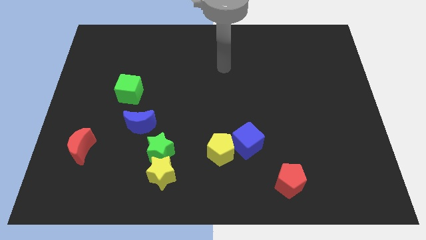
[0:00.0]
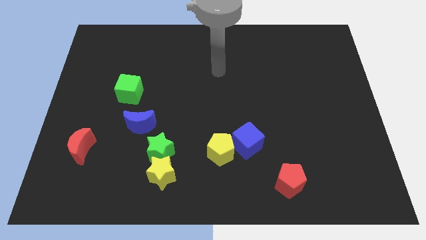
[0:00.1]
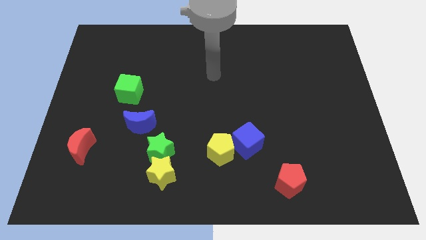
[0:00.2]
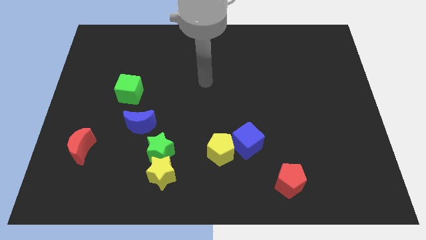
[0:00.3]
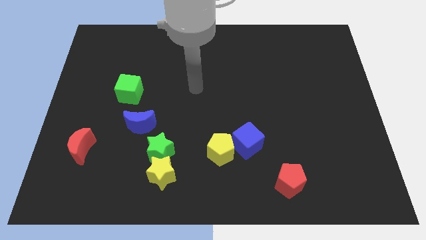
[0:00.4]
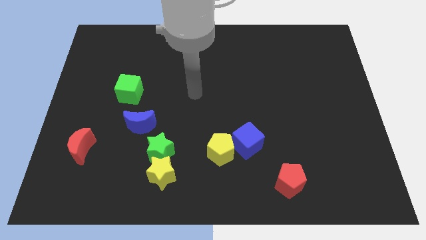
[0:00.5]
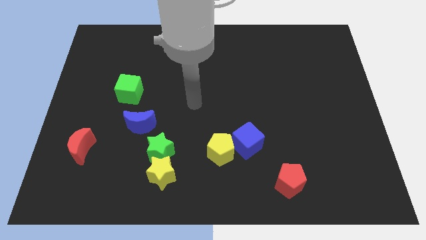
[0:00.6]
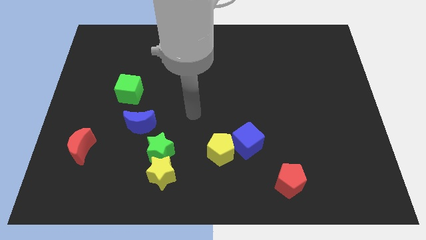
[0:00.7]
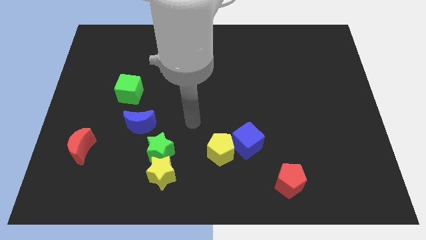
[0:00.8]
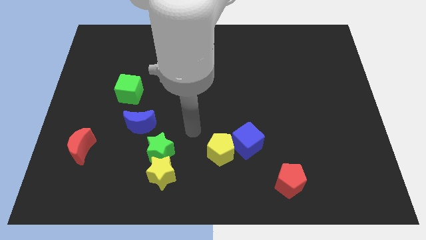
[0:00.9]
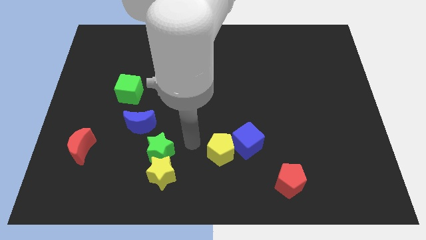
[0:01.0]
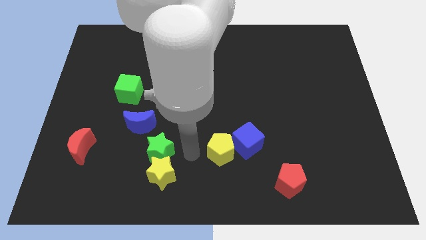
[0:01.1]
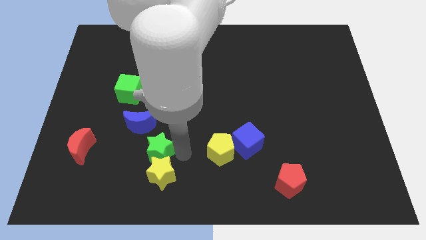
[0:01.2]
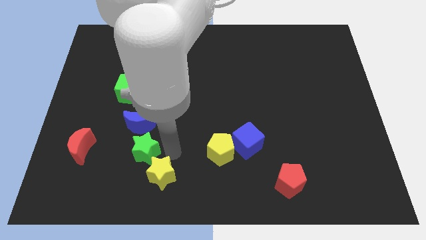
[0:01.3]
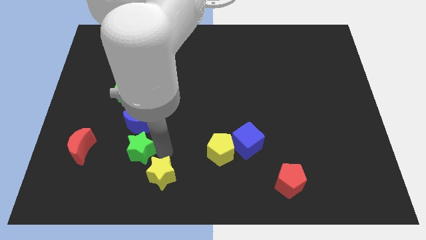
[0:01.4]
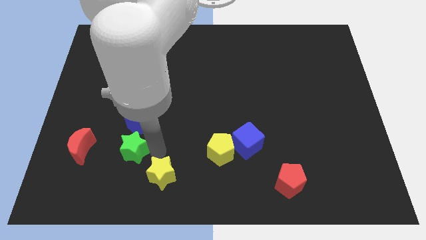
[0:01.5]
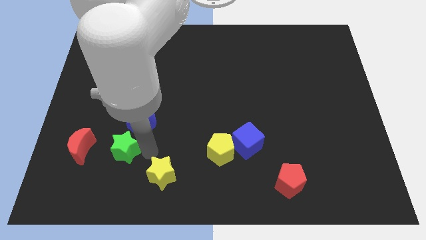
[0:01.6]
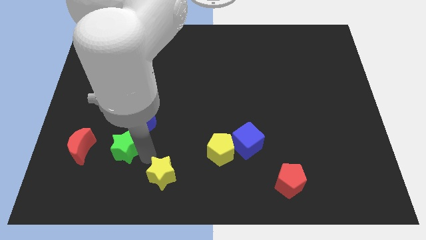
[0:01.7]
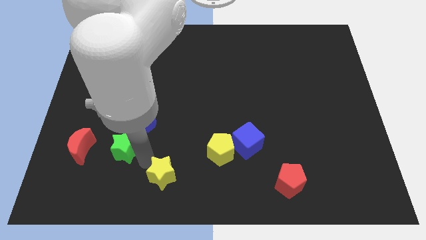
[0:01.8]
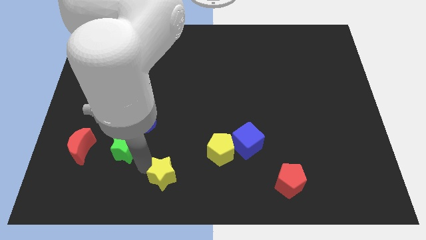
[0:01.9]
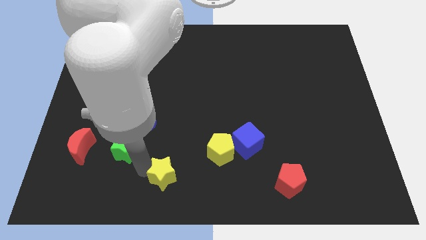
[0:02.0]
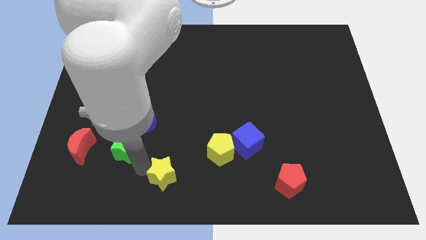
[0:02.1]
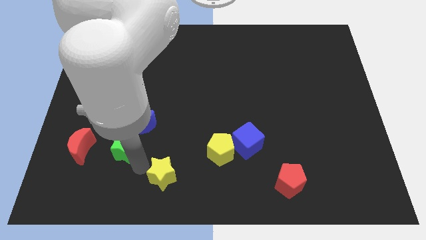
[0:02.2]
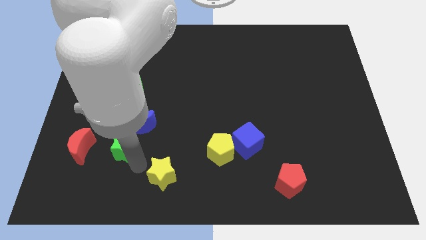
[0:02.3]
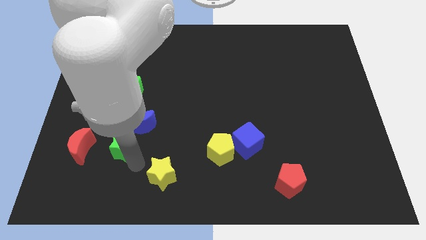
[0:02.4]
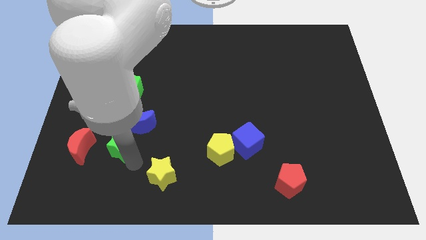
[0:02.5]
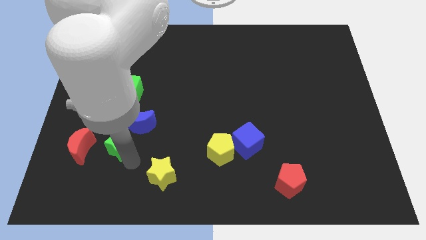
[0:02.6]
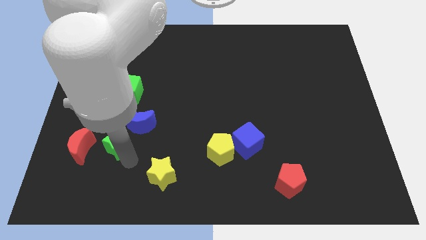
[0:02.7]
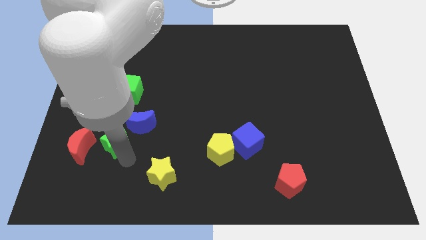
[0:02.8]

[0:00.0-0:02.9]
push the green star diagonally upwards and to the left a little

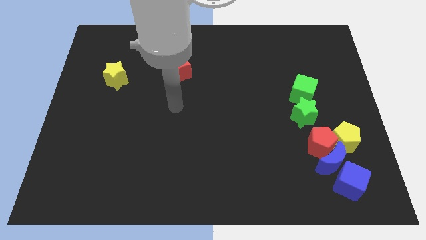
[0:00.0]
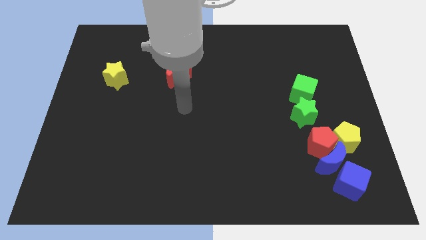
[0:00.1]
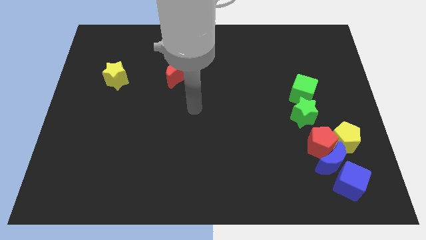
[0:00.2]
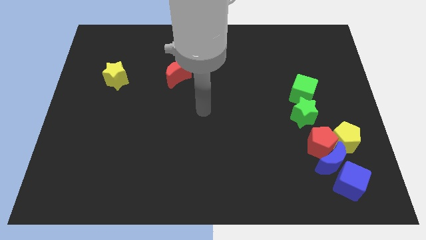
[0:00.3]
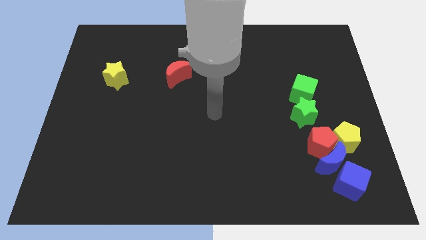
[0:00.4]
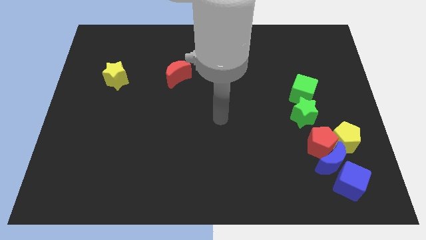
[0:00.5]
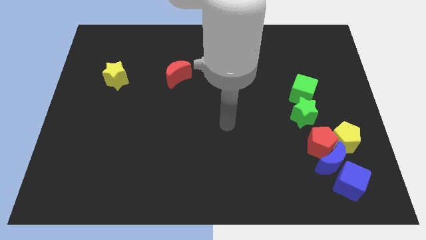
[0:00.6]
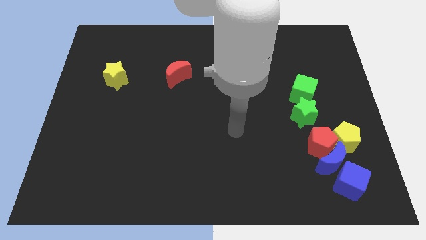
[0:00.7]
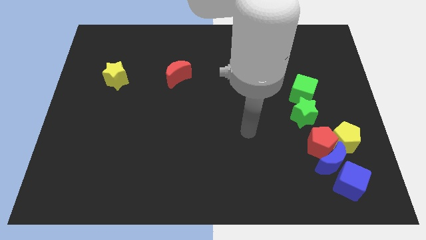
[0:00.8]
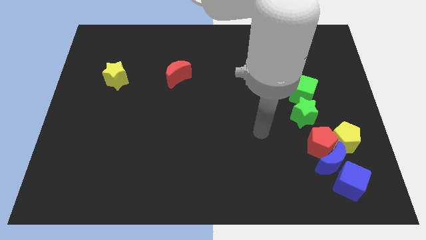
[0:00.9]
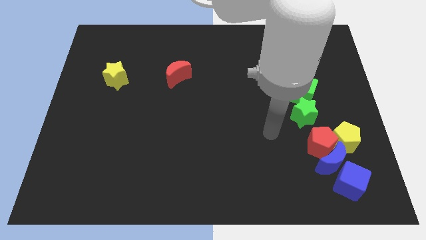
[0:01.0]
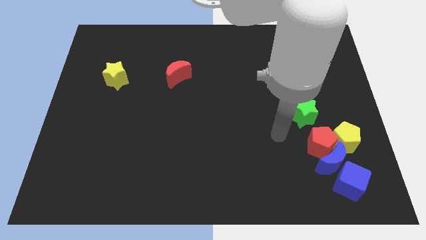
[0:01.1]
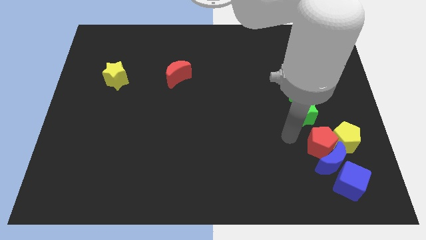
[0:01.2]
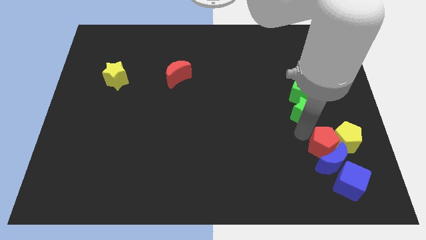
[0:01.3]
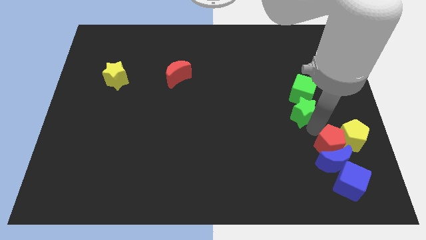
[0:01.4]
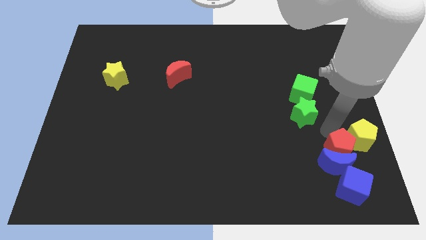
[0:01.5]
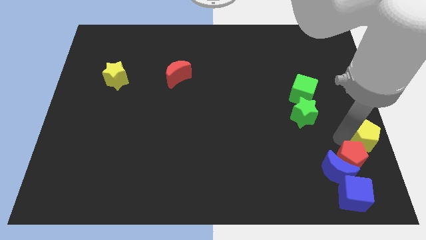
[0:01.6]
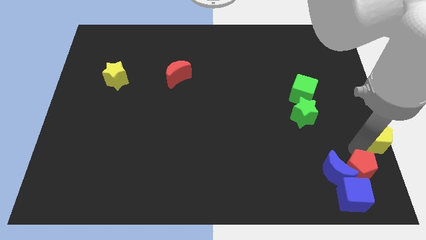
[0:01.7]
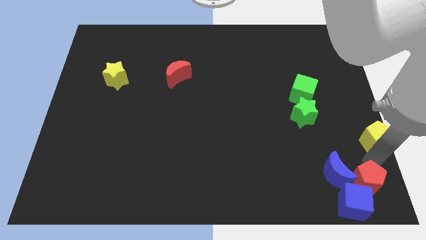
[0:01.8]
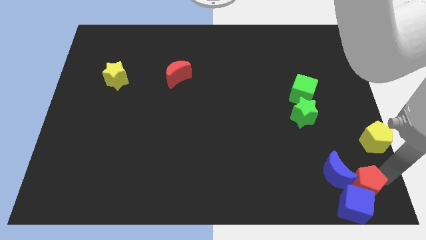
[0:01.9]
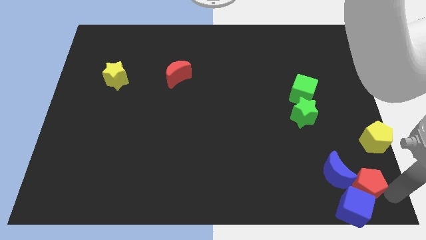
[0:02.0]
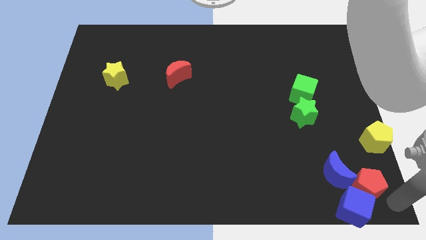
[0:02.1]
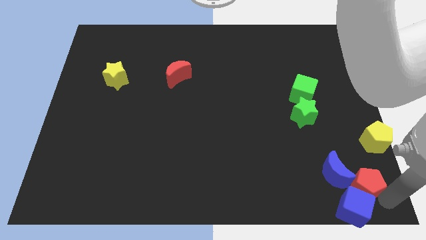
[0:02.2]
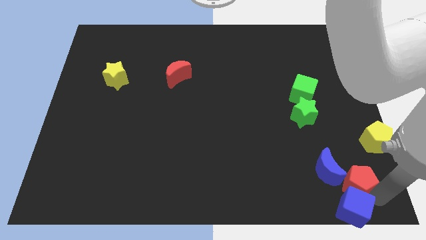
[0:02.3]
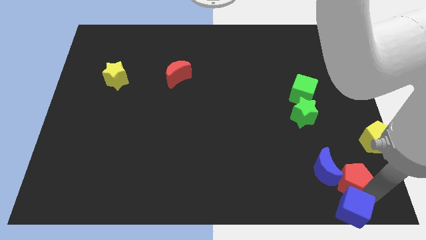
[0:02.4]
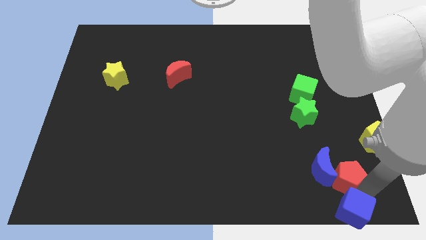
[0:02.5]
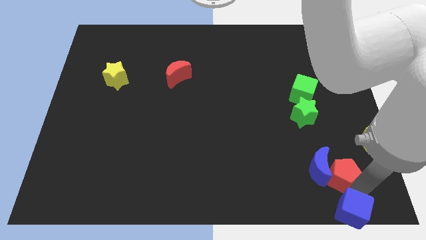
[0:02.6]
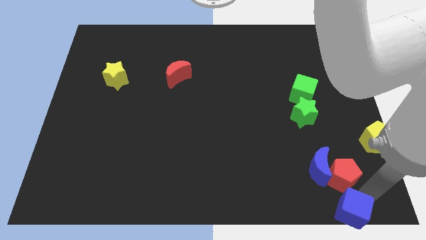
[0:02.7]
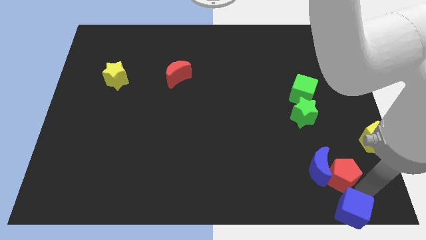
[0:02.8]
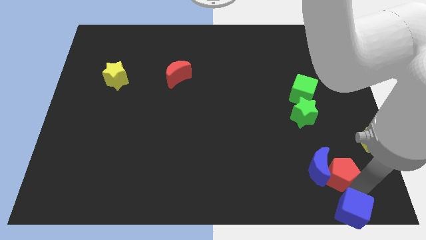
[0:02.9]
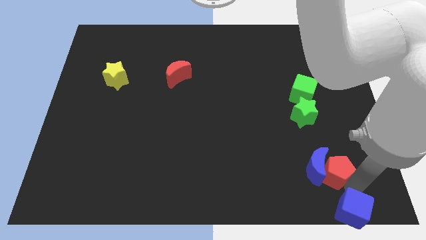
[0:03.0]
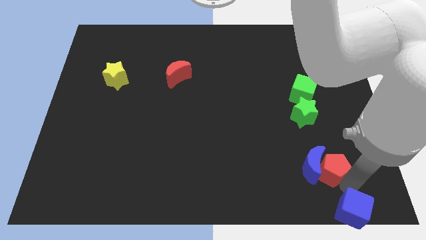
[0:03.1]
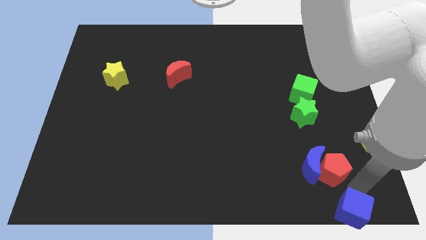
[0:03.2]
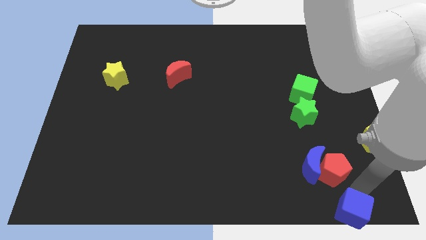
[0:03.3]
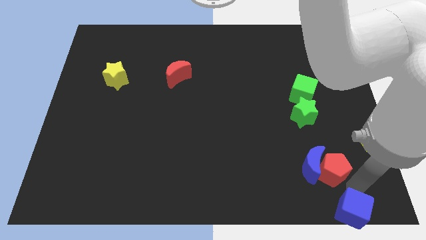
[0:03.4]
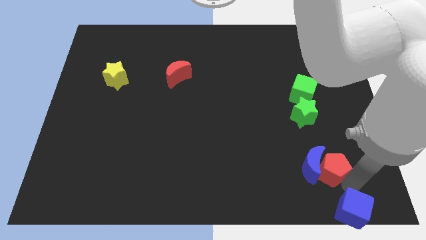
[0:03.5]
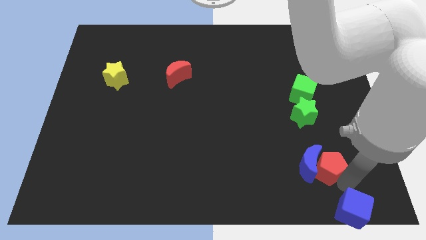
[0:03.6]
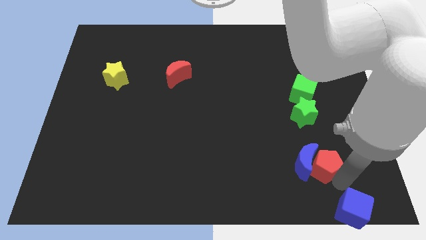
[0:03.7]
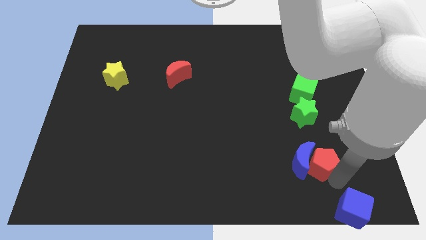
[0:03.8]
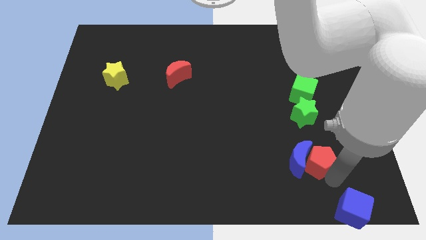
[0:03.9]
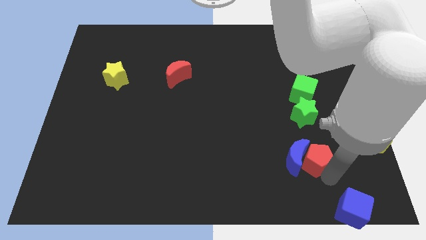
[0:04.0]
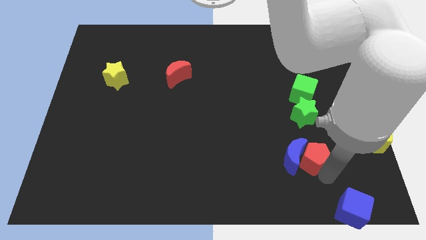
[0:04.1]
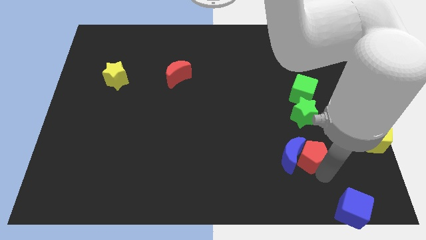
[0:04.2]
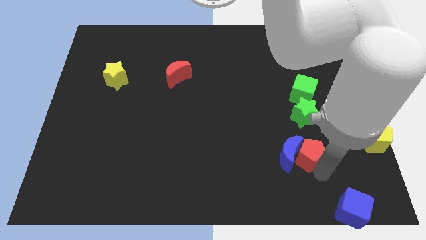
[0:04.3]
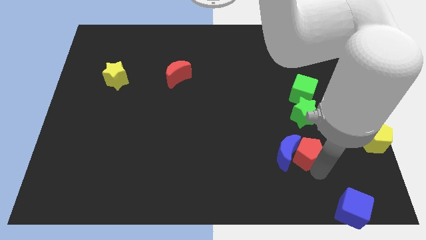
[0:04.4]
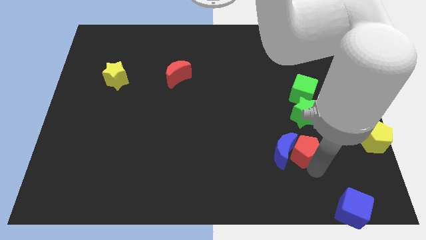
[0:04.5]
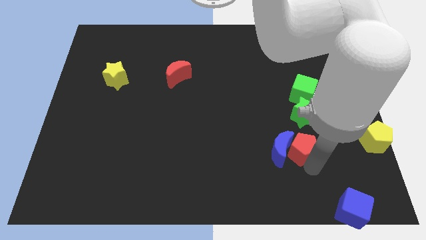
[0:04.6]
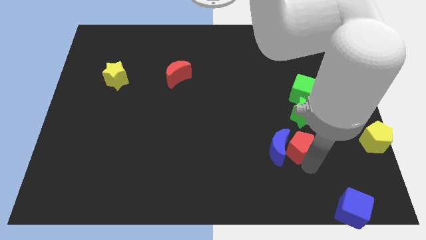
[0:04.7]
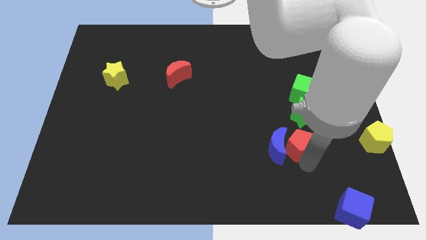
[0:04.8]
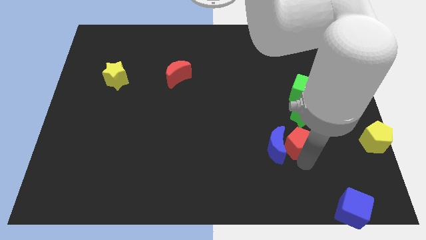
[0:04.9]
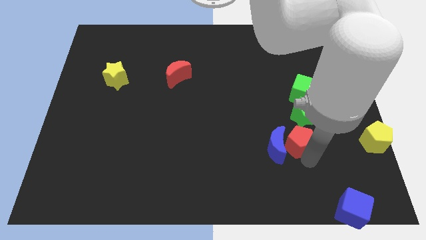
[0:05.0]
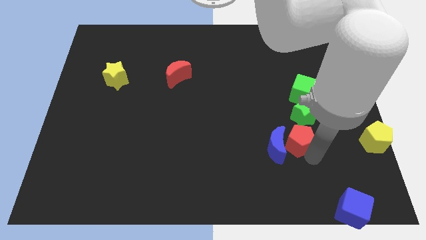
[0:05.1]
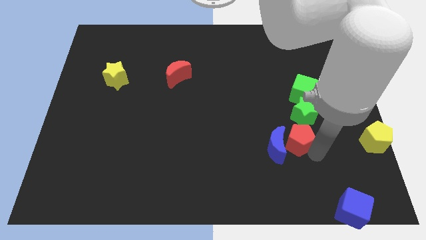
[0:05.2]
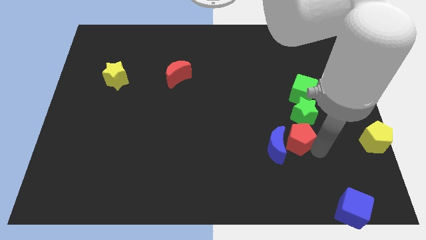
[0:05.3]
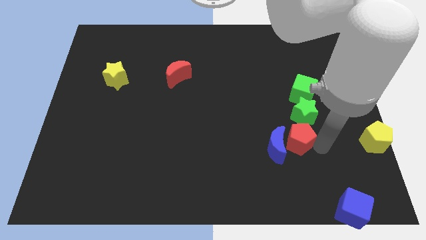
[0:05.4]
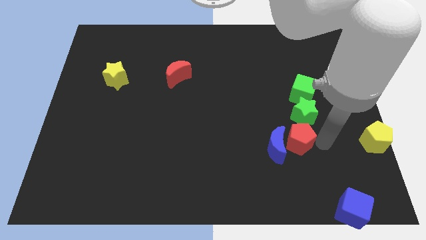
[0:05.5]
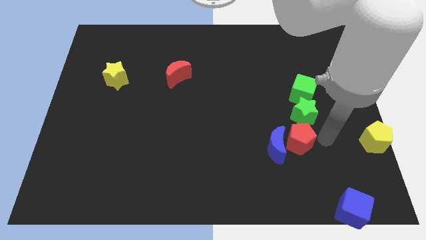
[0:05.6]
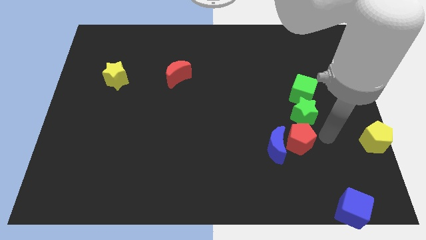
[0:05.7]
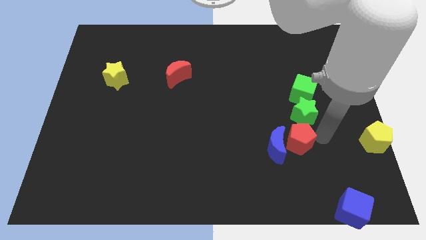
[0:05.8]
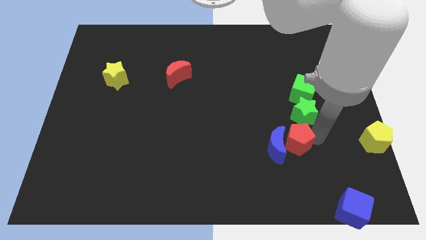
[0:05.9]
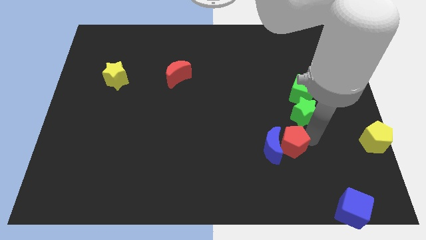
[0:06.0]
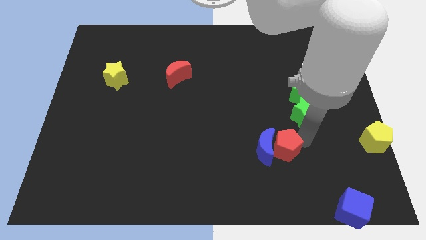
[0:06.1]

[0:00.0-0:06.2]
push the red pentagon a little left
